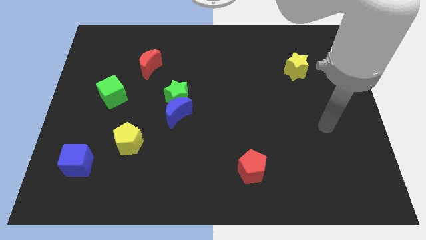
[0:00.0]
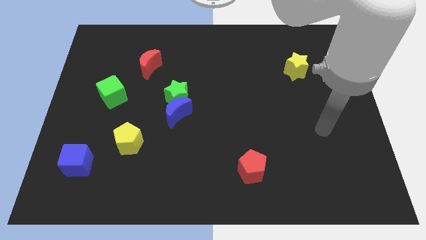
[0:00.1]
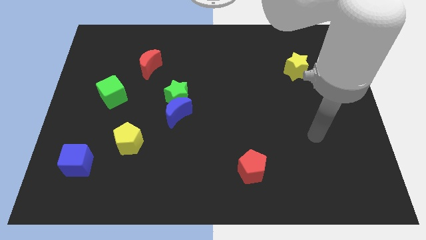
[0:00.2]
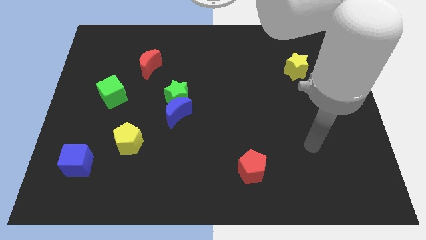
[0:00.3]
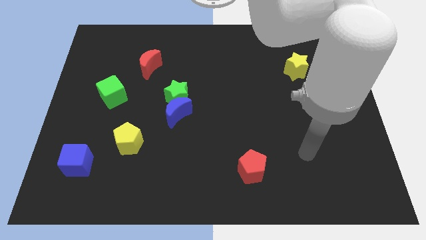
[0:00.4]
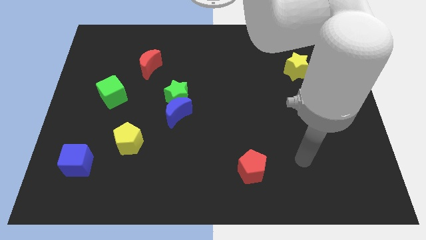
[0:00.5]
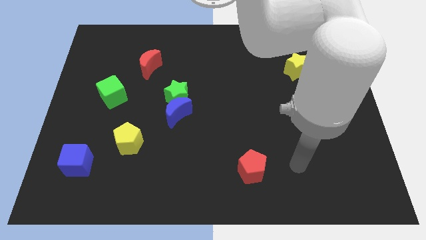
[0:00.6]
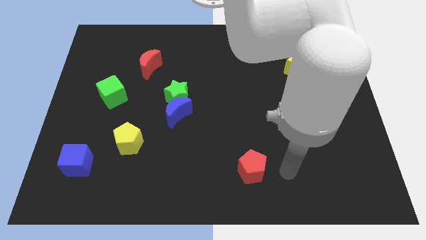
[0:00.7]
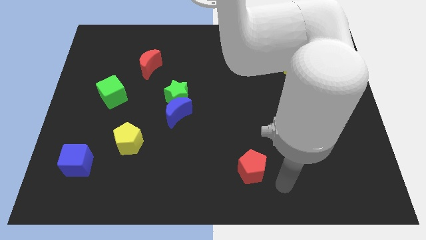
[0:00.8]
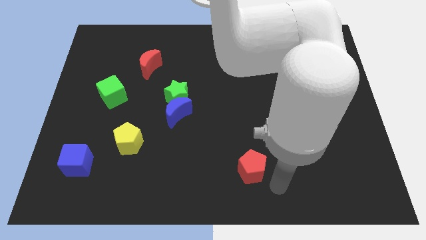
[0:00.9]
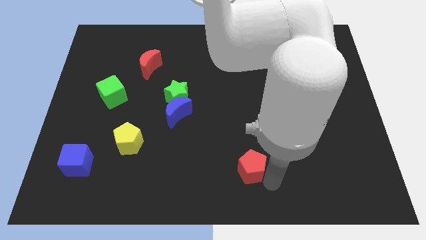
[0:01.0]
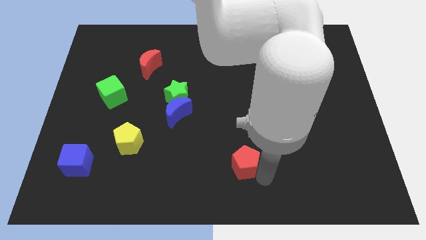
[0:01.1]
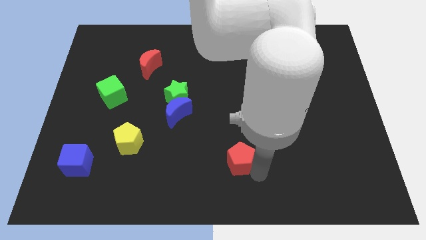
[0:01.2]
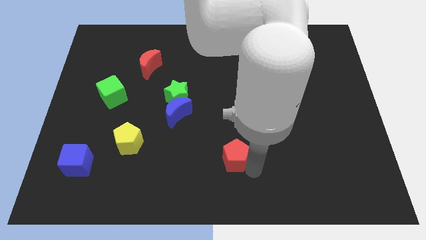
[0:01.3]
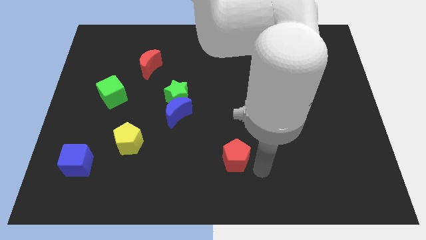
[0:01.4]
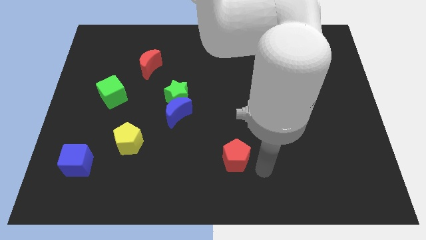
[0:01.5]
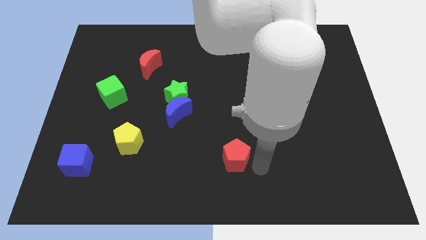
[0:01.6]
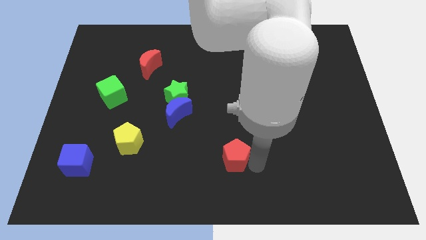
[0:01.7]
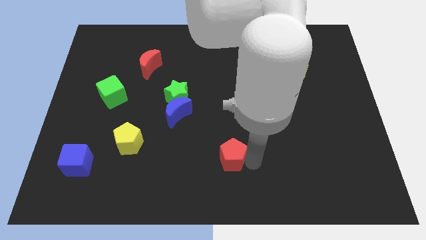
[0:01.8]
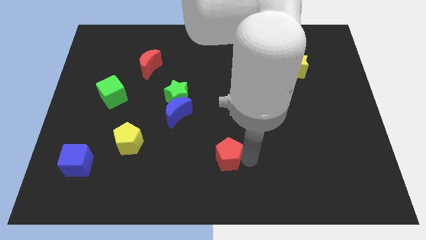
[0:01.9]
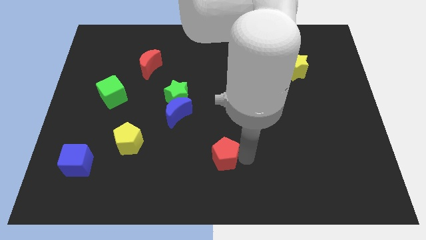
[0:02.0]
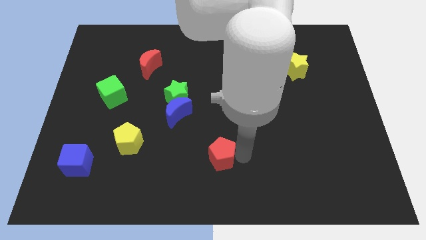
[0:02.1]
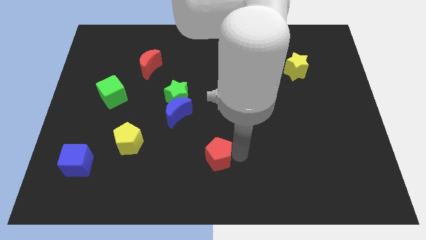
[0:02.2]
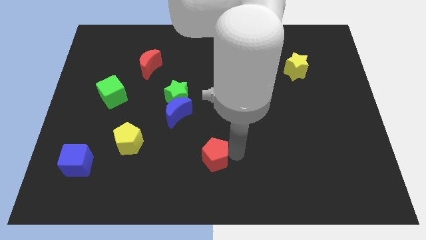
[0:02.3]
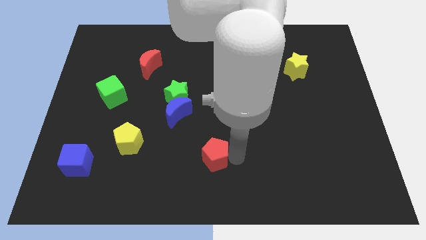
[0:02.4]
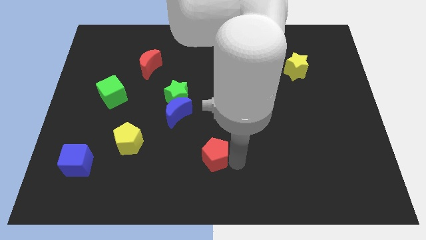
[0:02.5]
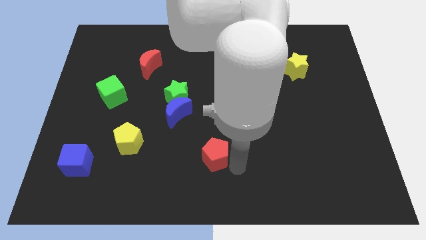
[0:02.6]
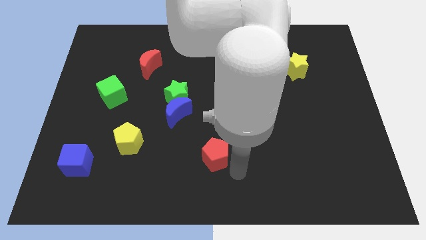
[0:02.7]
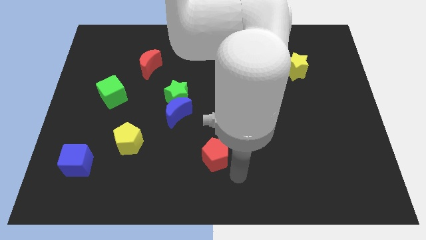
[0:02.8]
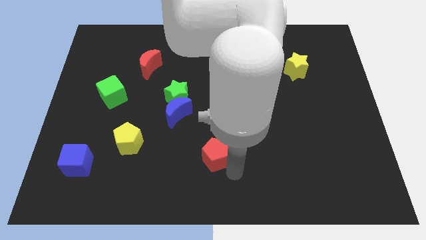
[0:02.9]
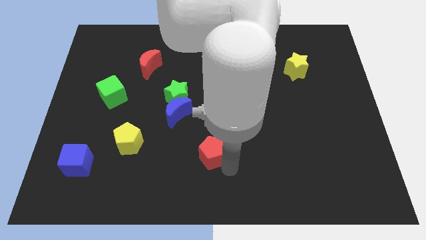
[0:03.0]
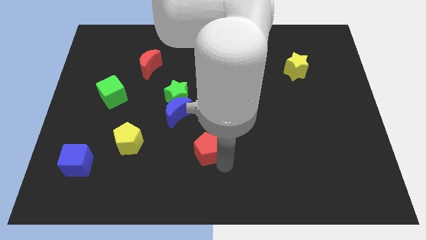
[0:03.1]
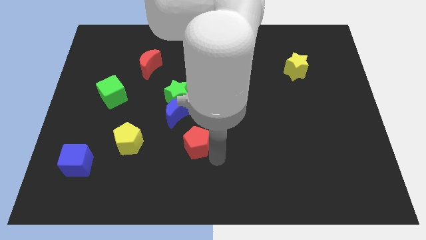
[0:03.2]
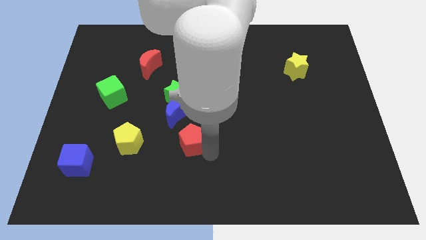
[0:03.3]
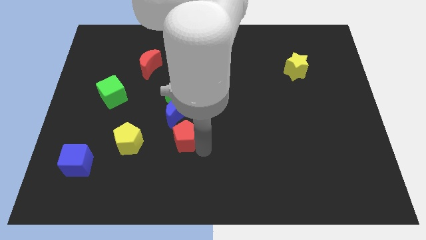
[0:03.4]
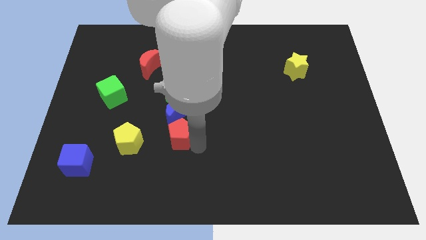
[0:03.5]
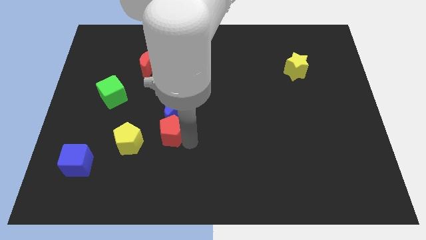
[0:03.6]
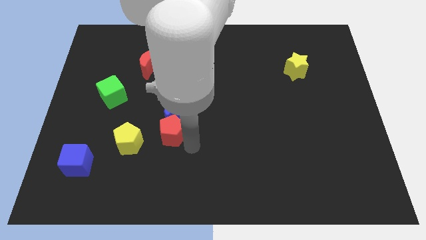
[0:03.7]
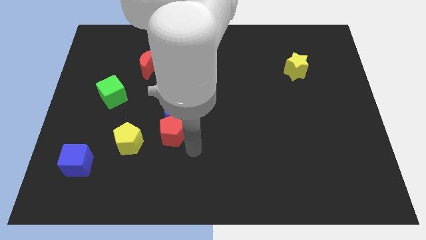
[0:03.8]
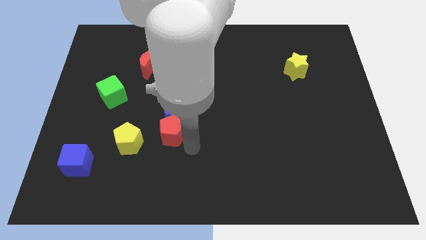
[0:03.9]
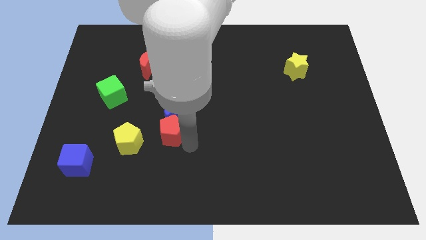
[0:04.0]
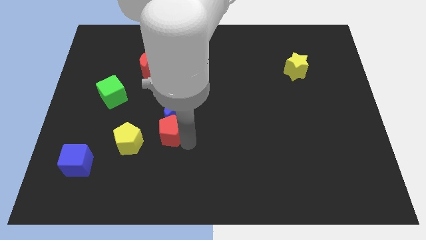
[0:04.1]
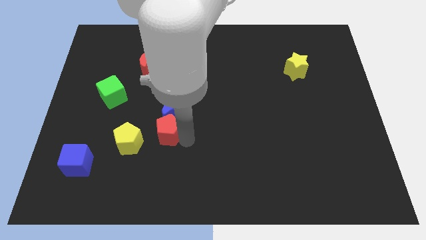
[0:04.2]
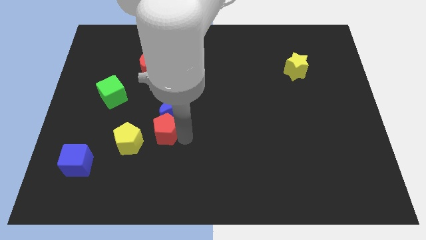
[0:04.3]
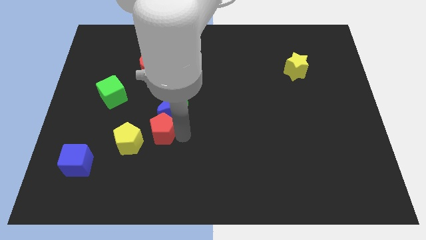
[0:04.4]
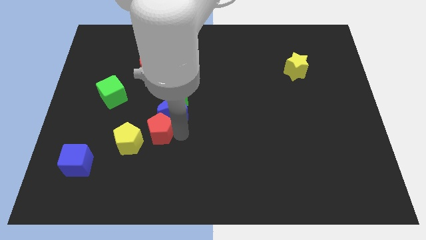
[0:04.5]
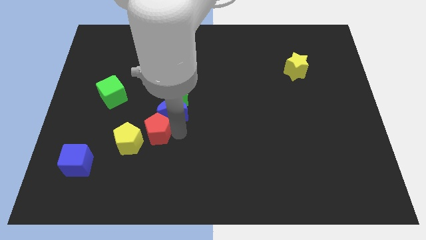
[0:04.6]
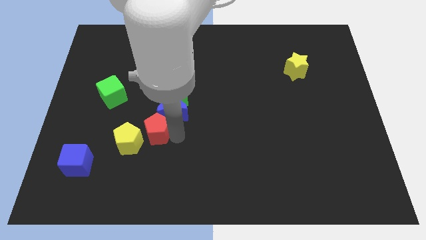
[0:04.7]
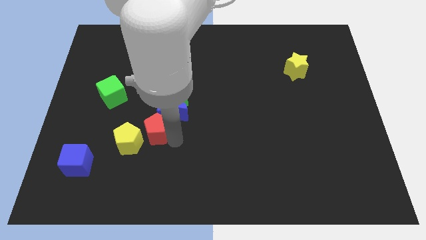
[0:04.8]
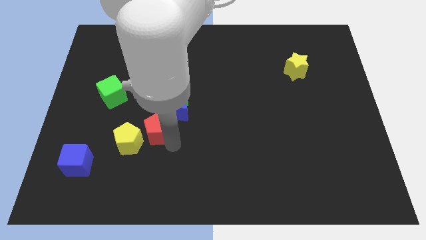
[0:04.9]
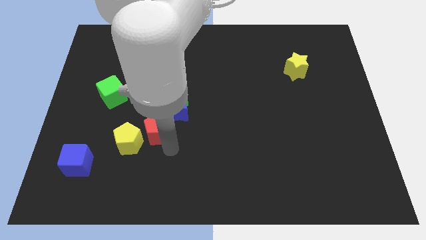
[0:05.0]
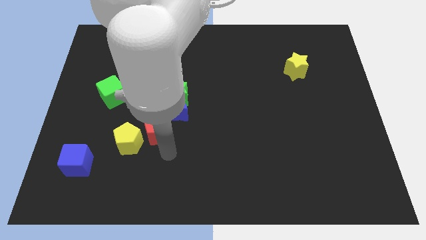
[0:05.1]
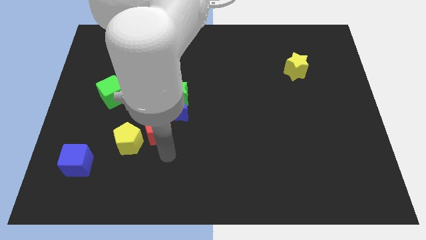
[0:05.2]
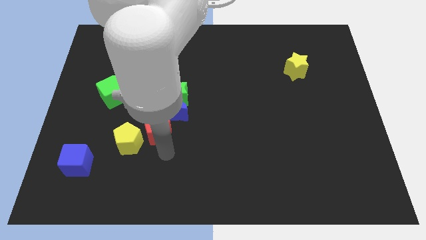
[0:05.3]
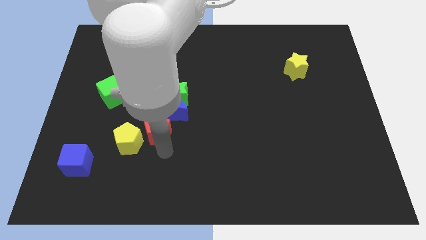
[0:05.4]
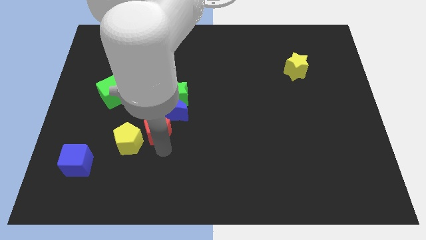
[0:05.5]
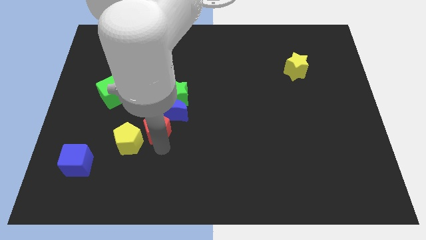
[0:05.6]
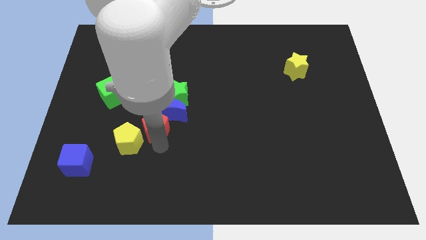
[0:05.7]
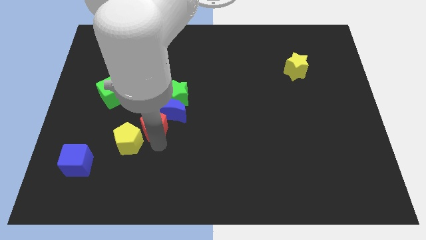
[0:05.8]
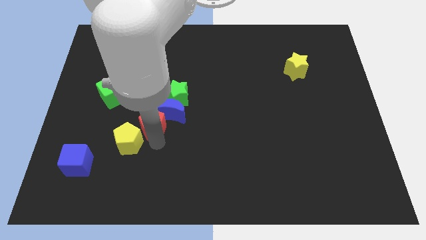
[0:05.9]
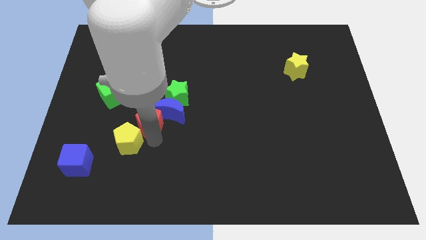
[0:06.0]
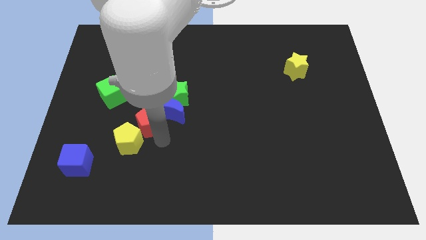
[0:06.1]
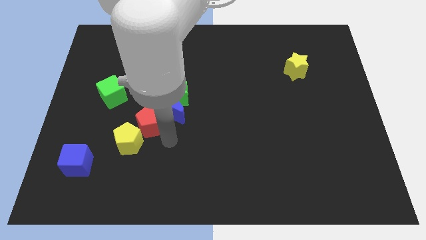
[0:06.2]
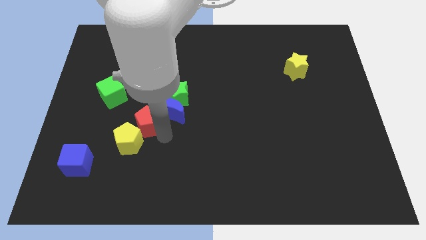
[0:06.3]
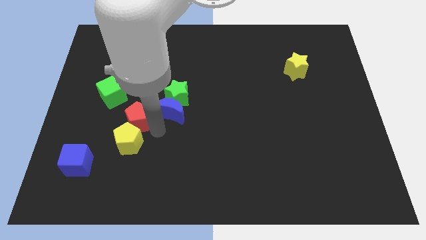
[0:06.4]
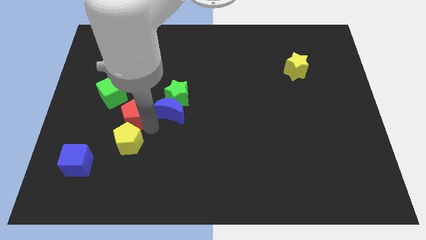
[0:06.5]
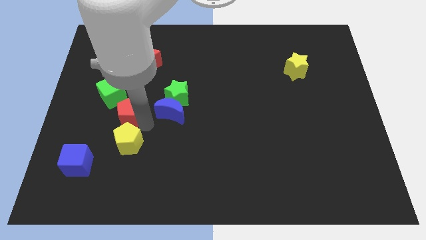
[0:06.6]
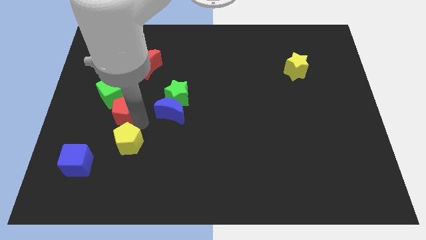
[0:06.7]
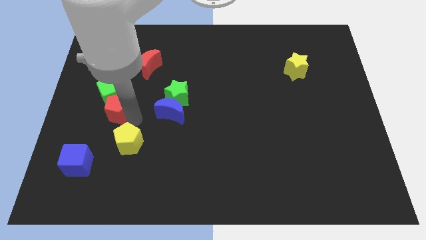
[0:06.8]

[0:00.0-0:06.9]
put the red pentagon next to the green cube

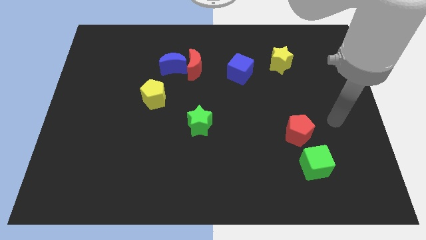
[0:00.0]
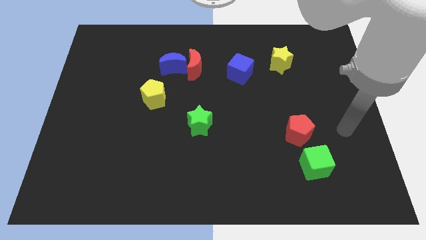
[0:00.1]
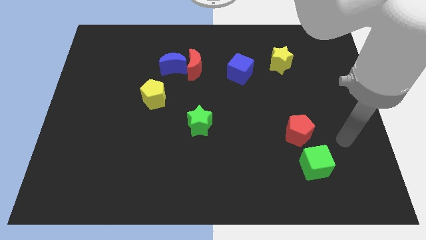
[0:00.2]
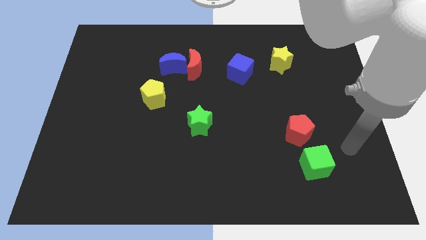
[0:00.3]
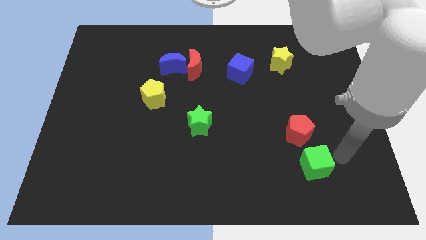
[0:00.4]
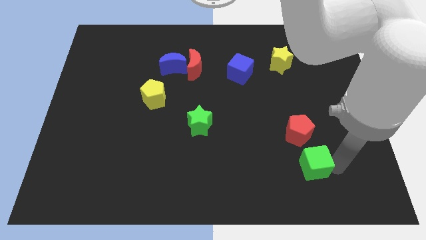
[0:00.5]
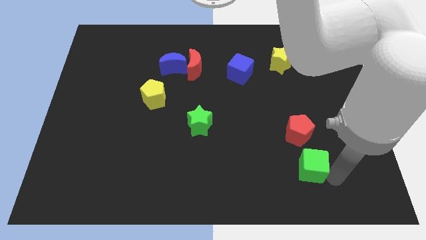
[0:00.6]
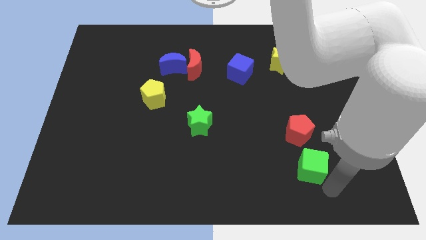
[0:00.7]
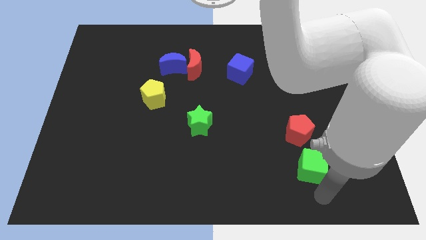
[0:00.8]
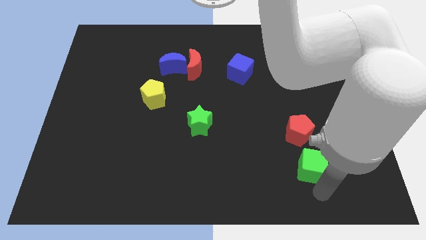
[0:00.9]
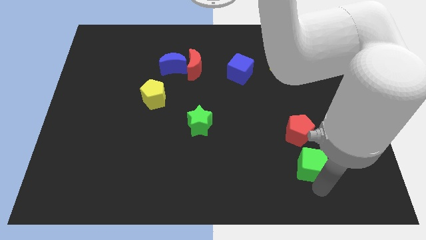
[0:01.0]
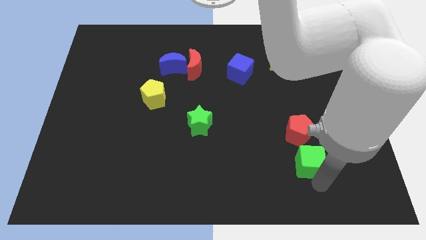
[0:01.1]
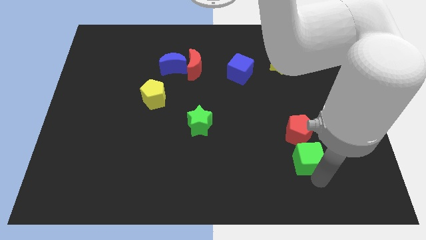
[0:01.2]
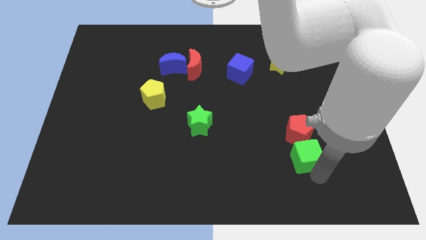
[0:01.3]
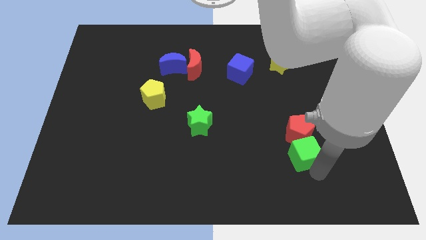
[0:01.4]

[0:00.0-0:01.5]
slide the green cube towards the red pentagon
